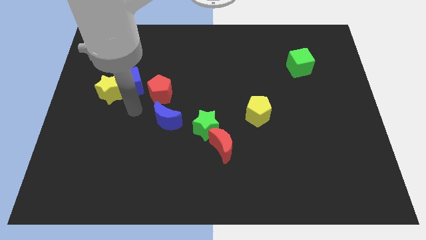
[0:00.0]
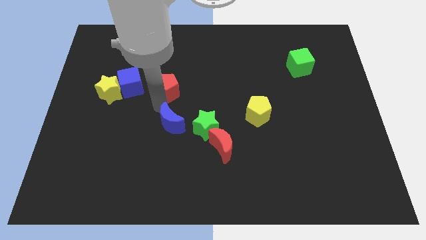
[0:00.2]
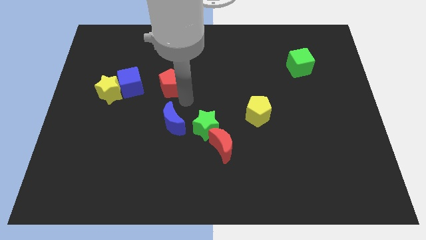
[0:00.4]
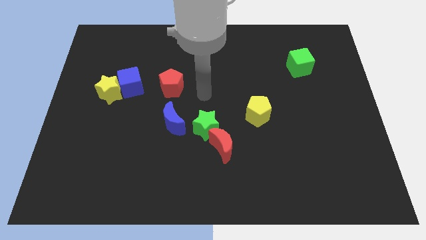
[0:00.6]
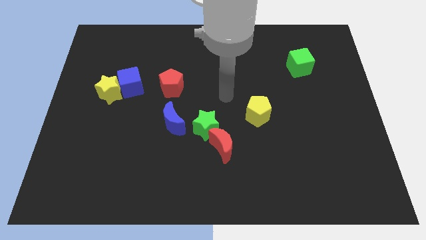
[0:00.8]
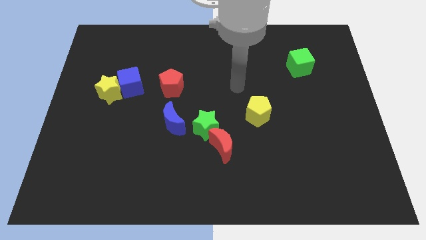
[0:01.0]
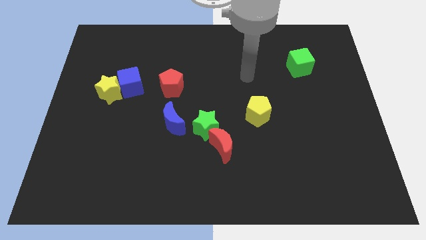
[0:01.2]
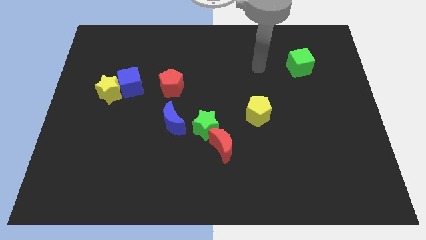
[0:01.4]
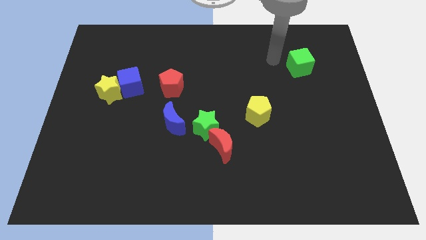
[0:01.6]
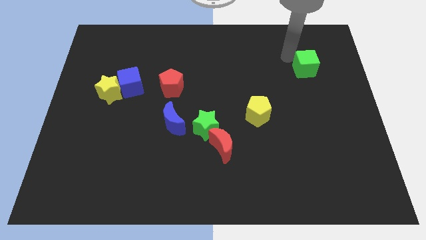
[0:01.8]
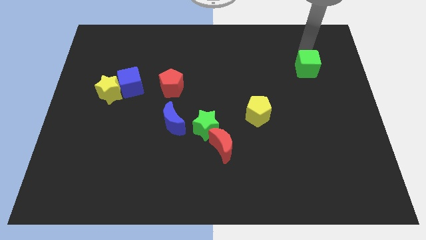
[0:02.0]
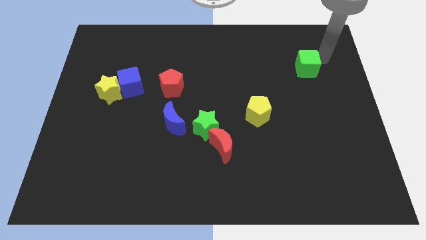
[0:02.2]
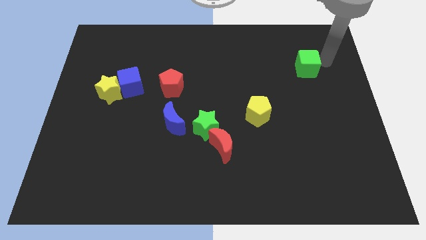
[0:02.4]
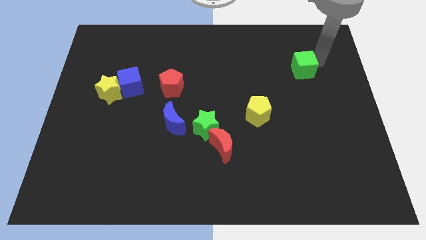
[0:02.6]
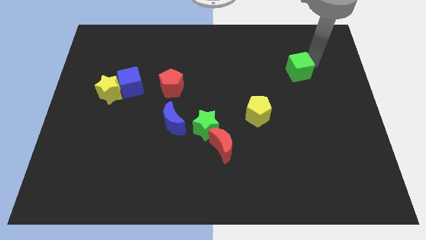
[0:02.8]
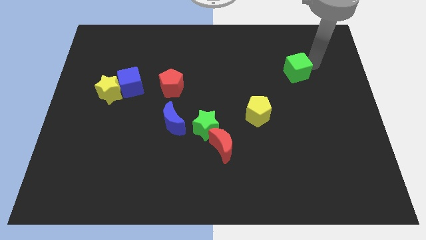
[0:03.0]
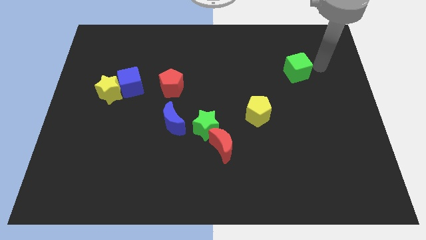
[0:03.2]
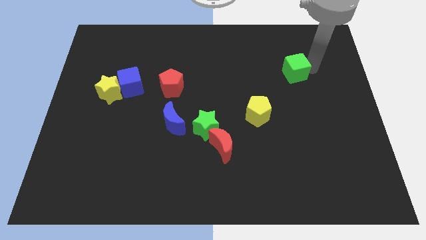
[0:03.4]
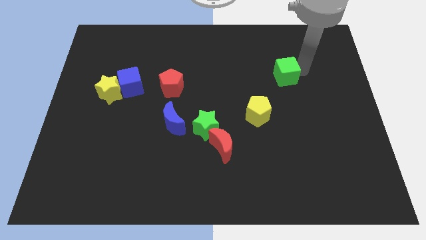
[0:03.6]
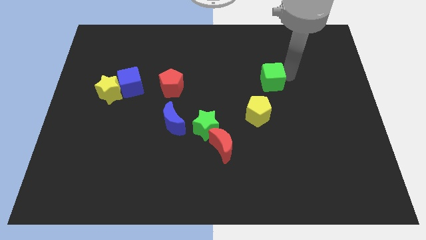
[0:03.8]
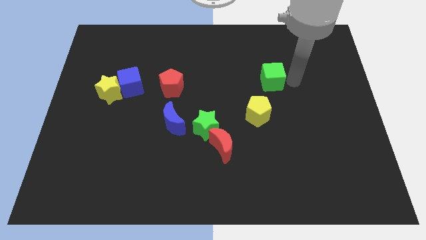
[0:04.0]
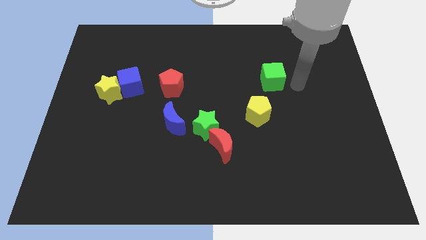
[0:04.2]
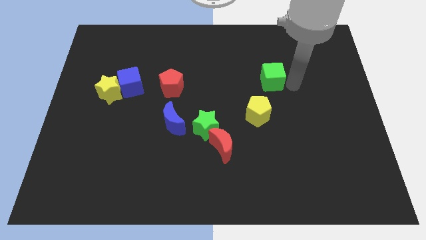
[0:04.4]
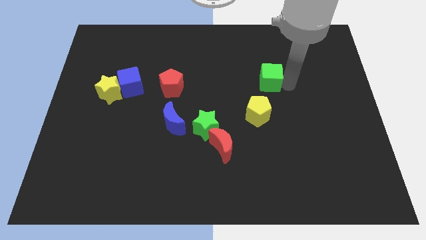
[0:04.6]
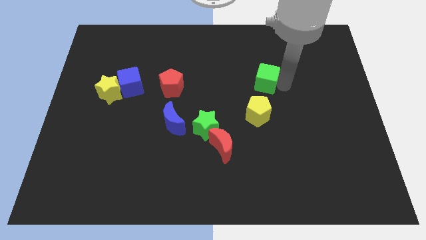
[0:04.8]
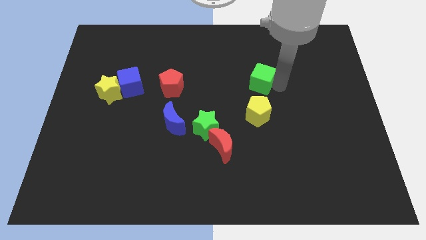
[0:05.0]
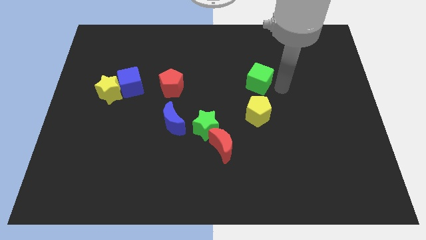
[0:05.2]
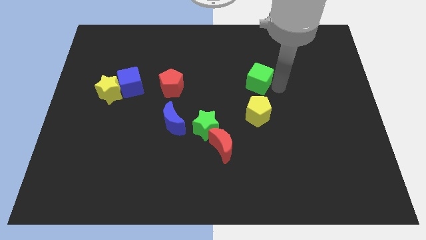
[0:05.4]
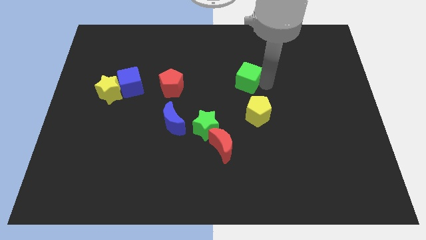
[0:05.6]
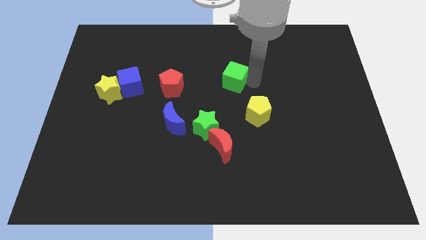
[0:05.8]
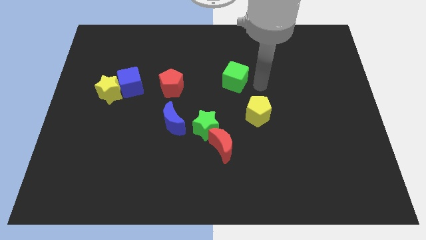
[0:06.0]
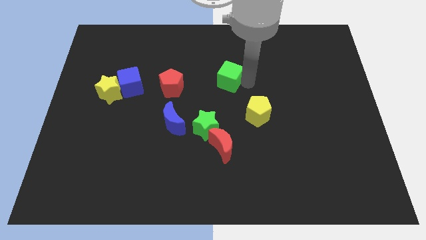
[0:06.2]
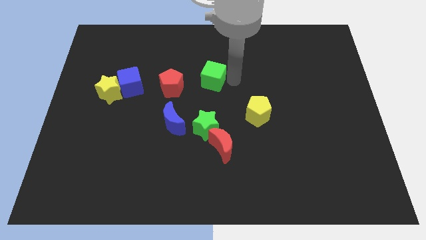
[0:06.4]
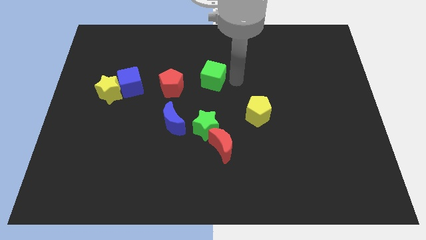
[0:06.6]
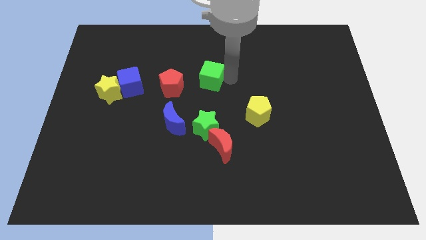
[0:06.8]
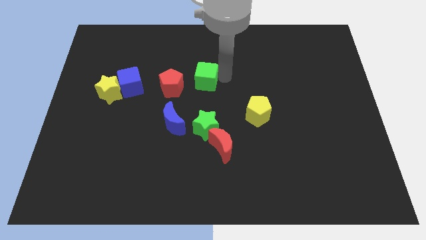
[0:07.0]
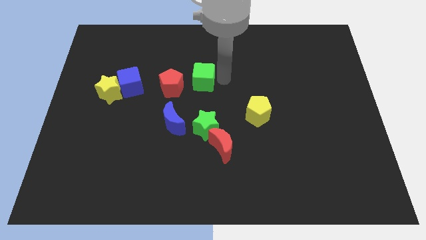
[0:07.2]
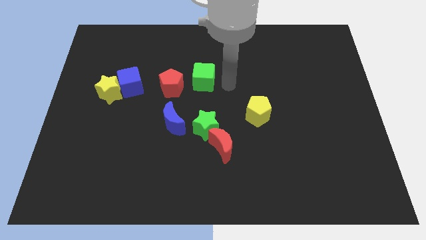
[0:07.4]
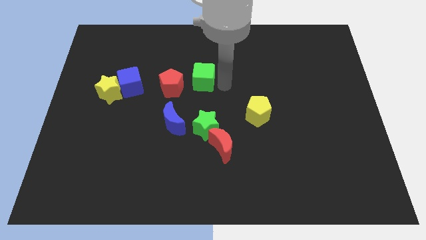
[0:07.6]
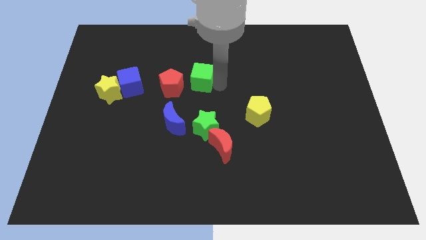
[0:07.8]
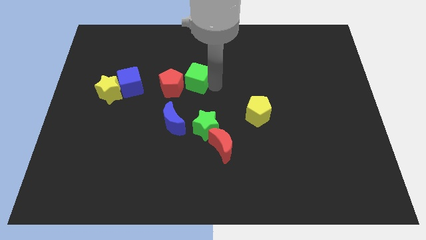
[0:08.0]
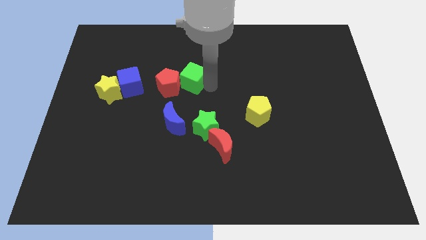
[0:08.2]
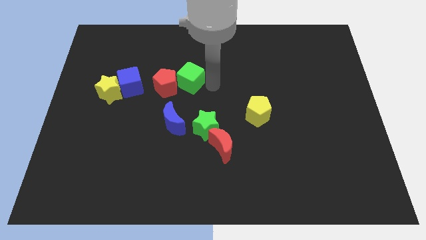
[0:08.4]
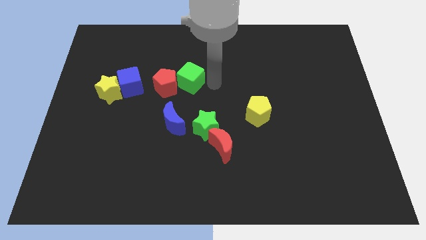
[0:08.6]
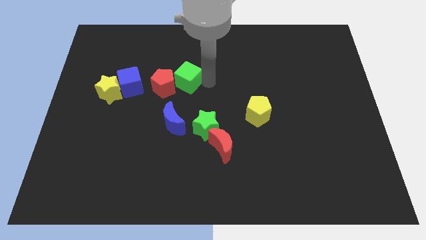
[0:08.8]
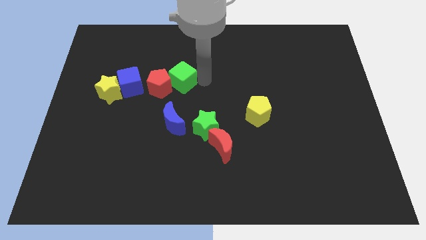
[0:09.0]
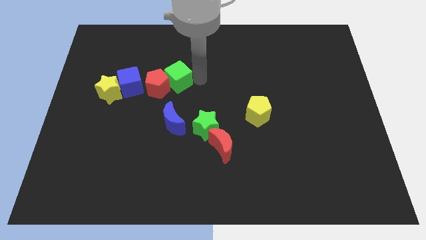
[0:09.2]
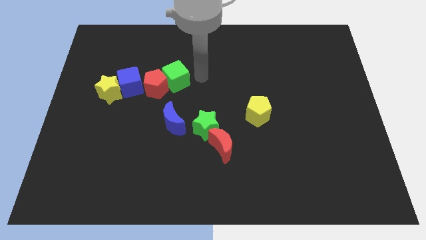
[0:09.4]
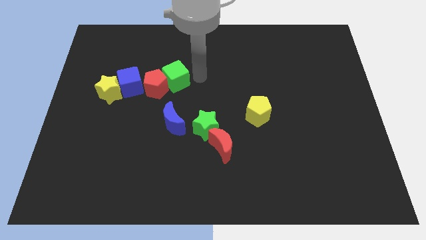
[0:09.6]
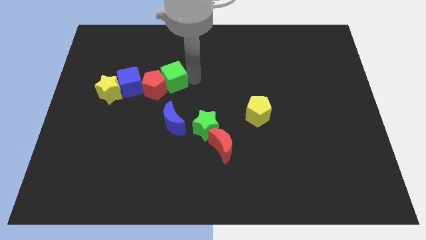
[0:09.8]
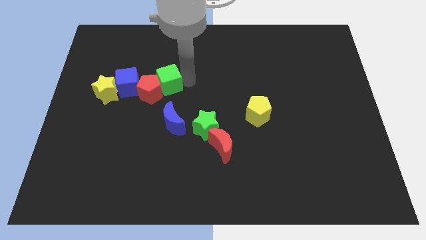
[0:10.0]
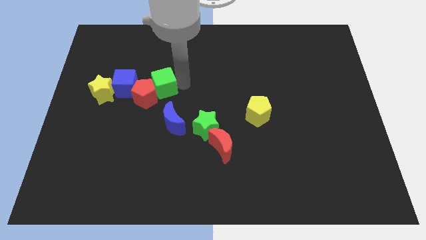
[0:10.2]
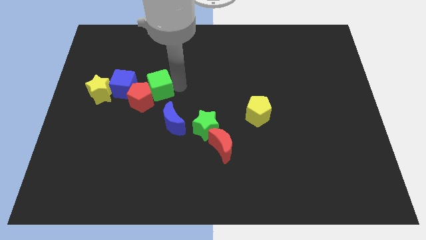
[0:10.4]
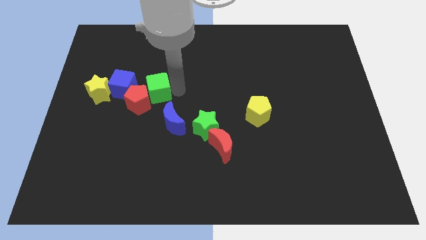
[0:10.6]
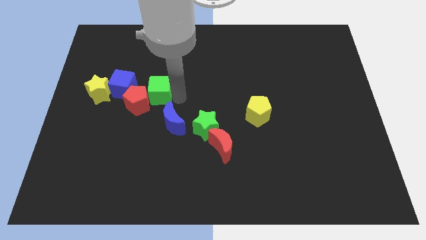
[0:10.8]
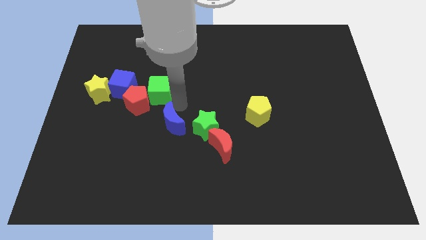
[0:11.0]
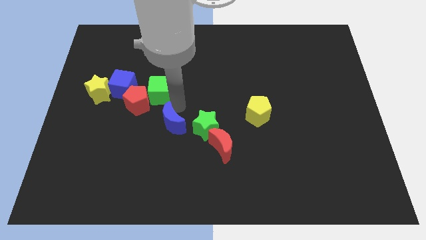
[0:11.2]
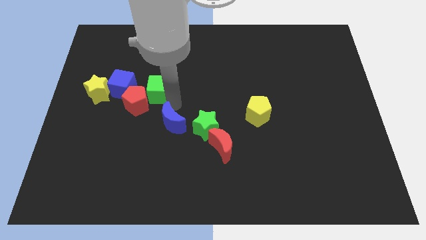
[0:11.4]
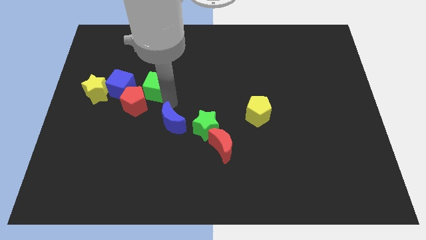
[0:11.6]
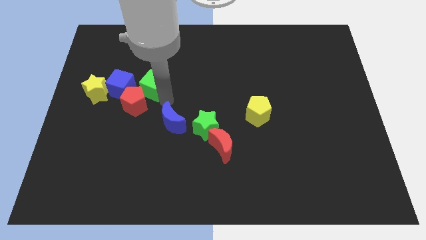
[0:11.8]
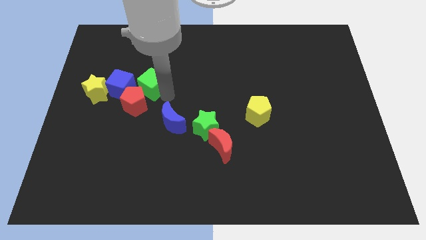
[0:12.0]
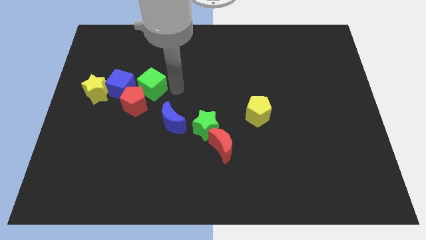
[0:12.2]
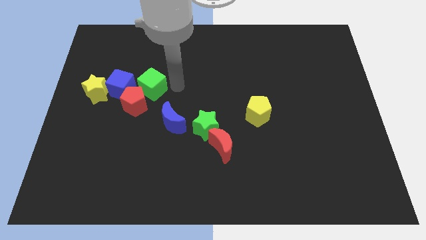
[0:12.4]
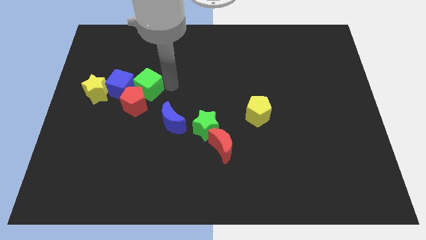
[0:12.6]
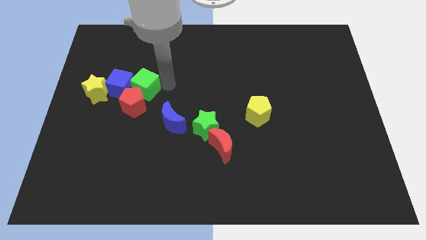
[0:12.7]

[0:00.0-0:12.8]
put the green cube towards the blue cube

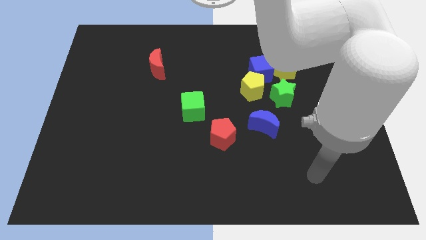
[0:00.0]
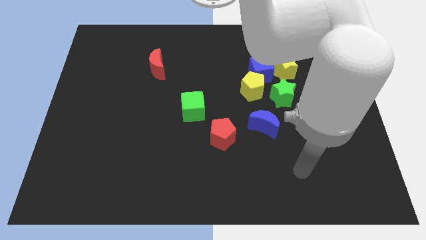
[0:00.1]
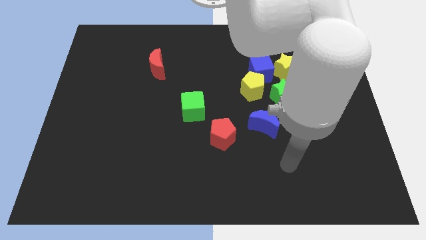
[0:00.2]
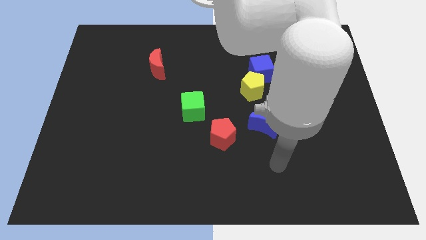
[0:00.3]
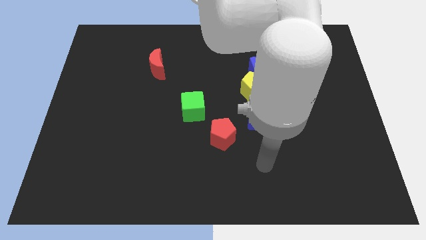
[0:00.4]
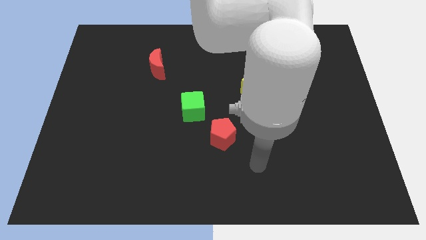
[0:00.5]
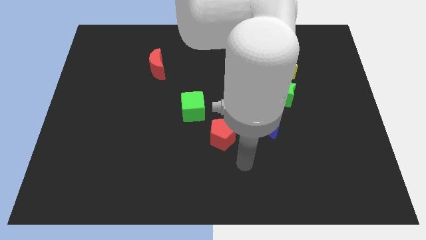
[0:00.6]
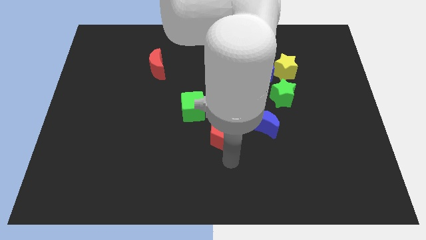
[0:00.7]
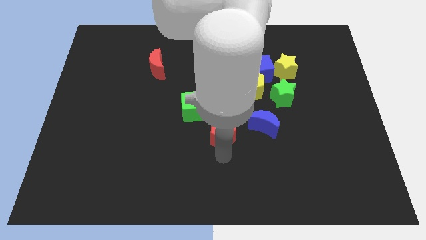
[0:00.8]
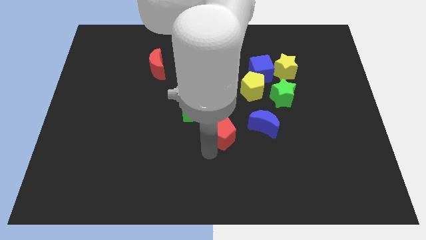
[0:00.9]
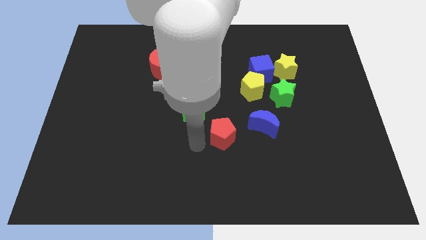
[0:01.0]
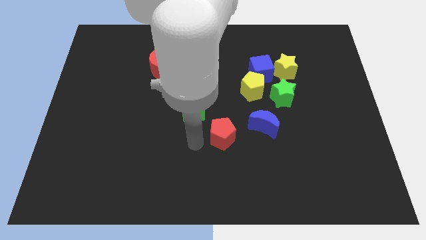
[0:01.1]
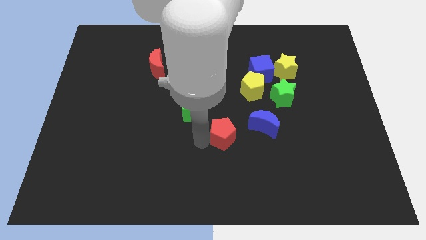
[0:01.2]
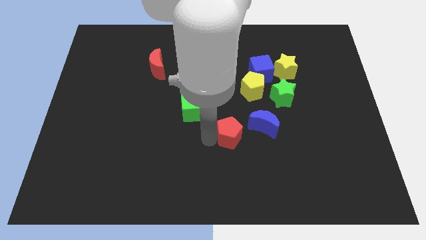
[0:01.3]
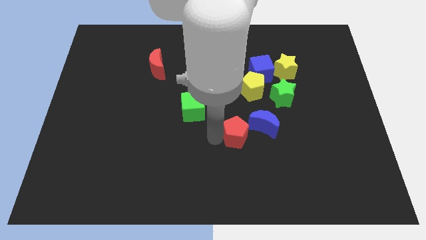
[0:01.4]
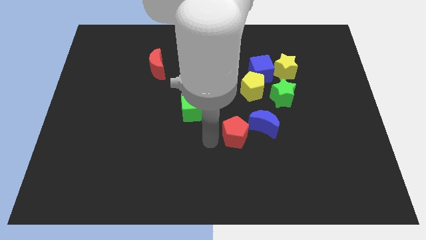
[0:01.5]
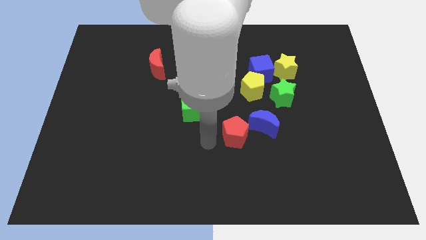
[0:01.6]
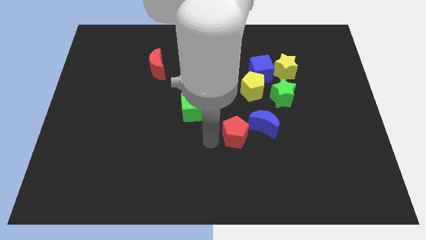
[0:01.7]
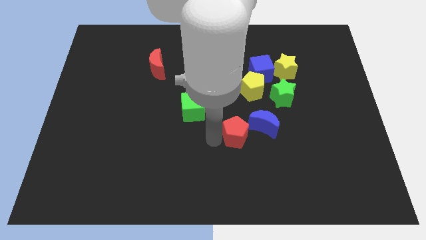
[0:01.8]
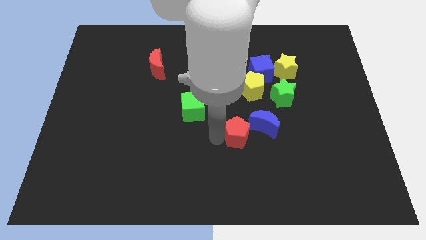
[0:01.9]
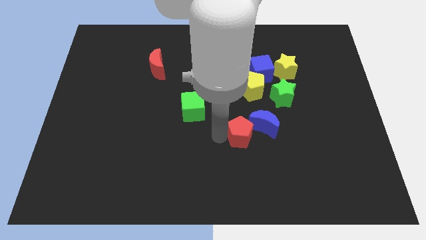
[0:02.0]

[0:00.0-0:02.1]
put the red pentagon next to the blue moon
